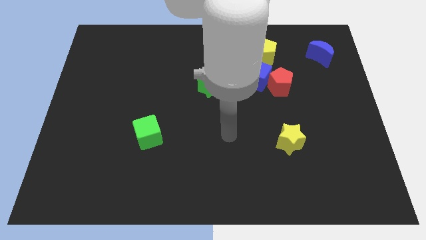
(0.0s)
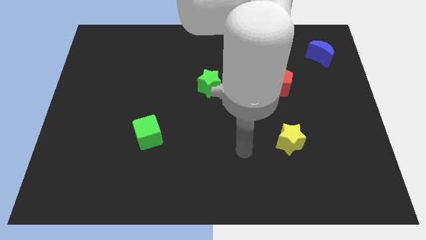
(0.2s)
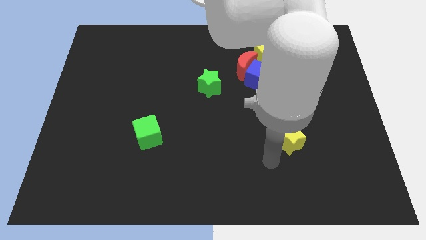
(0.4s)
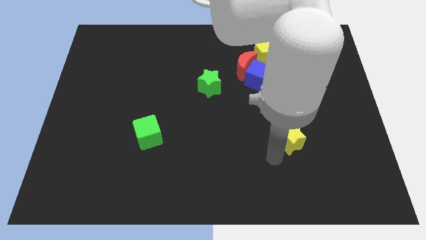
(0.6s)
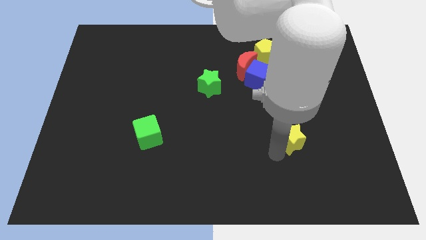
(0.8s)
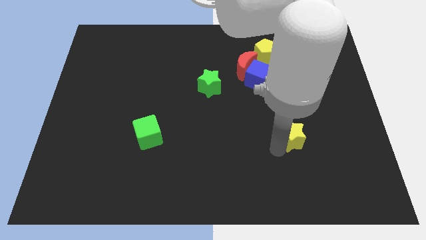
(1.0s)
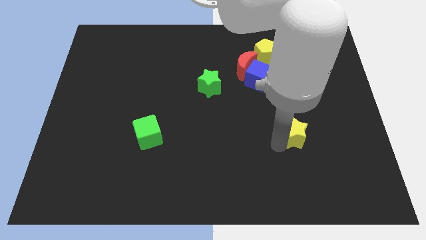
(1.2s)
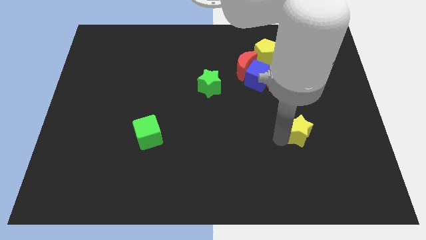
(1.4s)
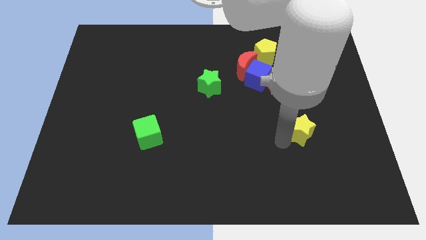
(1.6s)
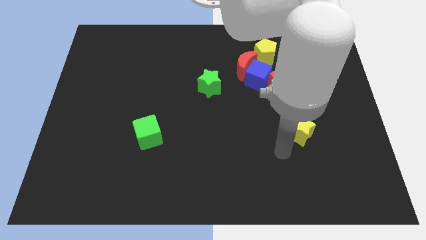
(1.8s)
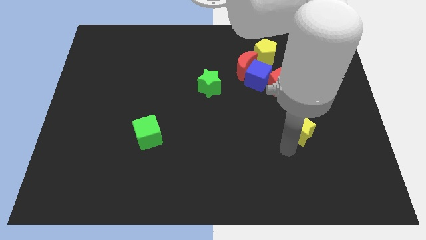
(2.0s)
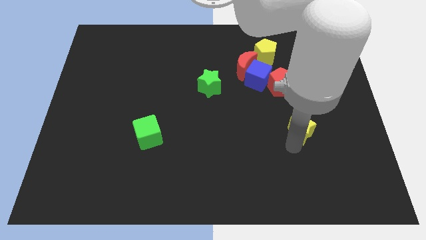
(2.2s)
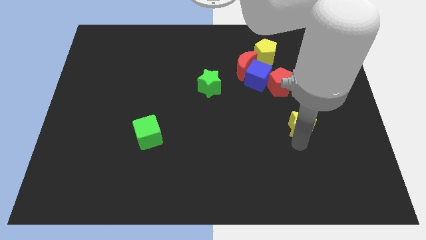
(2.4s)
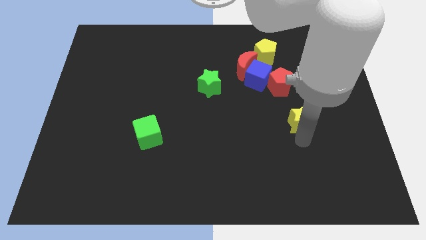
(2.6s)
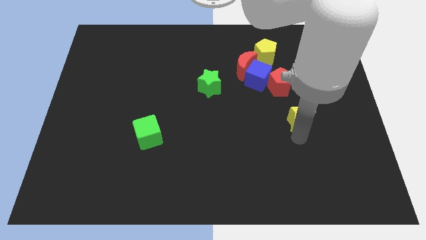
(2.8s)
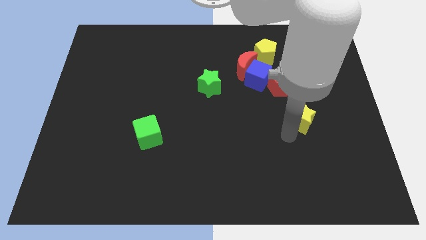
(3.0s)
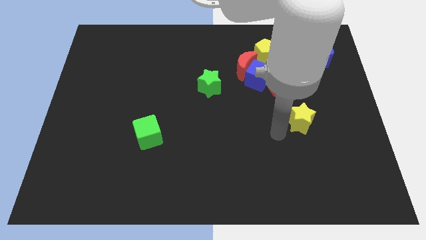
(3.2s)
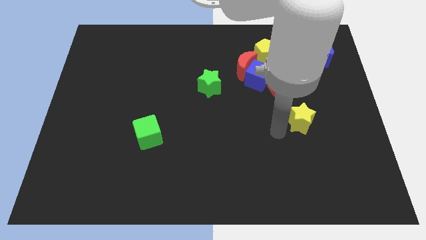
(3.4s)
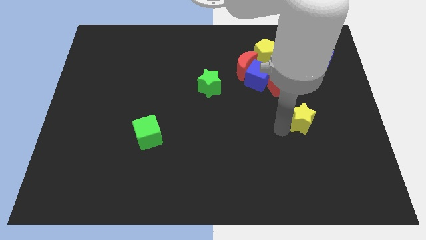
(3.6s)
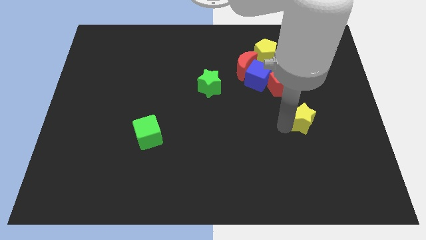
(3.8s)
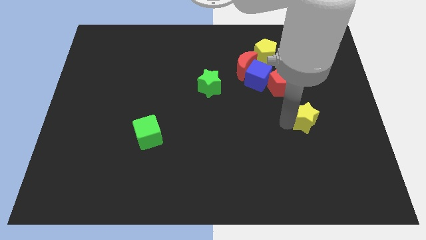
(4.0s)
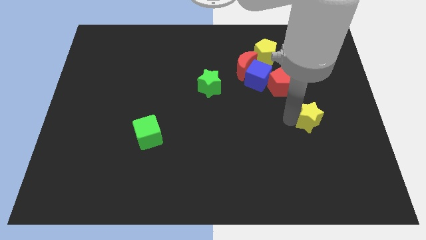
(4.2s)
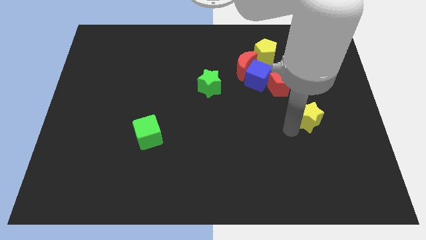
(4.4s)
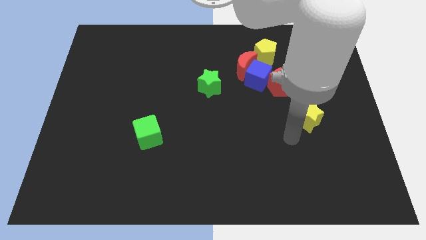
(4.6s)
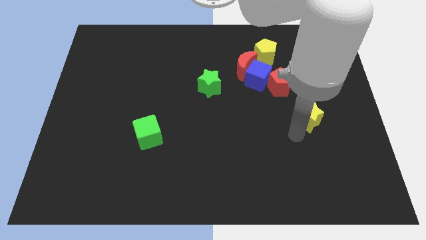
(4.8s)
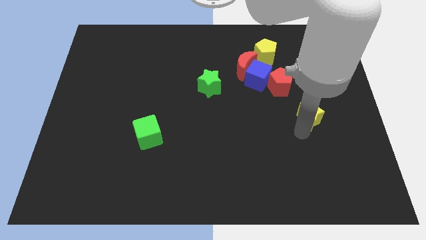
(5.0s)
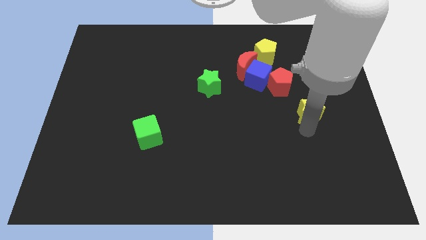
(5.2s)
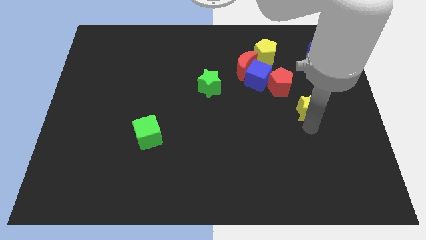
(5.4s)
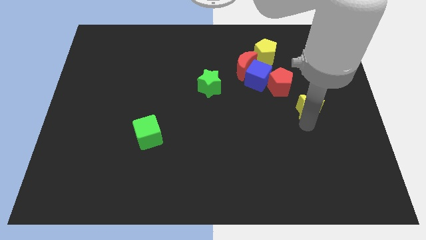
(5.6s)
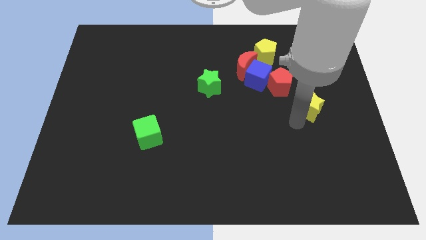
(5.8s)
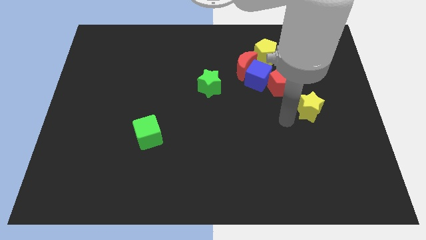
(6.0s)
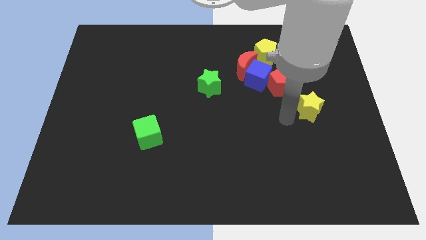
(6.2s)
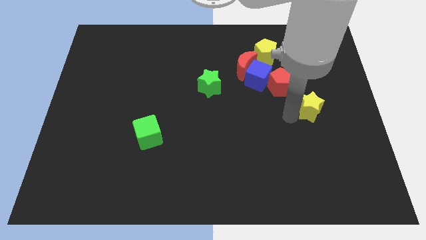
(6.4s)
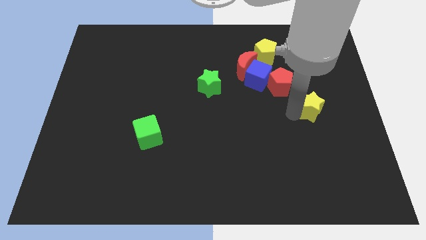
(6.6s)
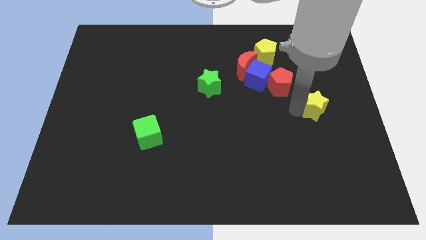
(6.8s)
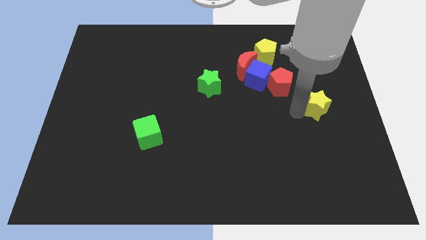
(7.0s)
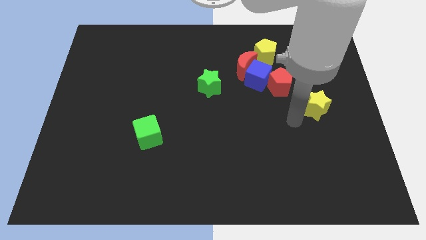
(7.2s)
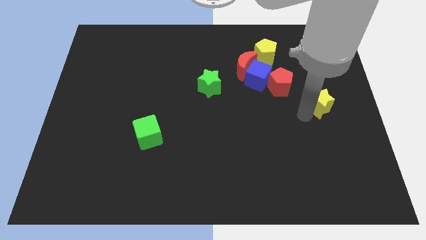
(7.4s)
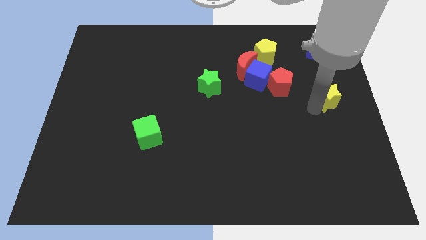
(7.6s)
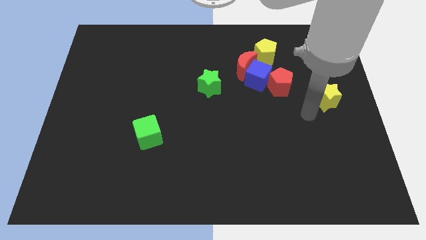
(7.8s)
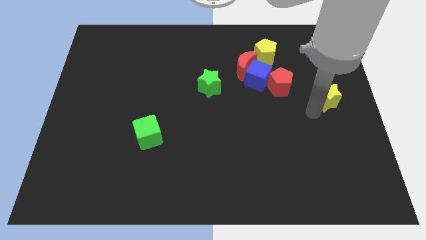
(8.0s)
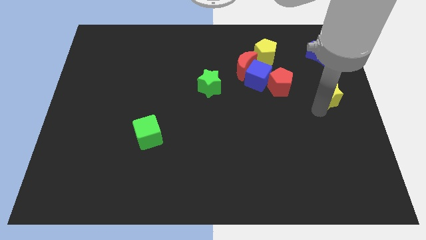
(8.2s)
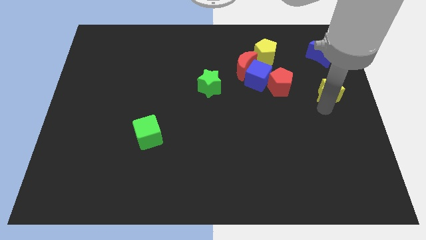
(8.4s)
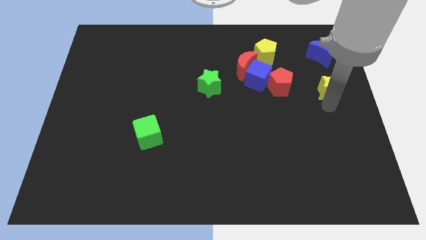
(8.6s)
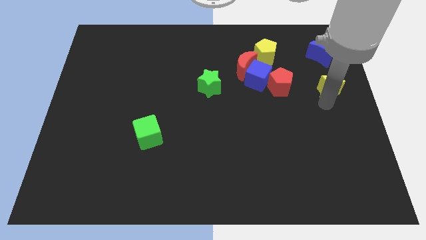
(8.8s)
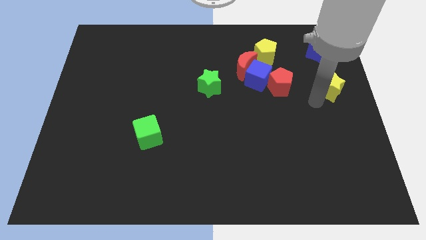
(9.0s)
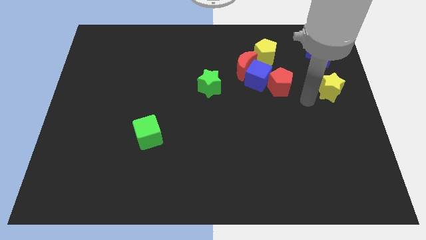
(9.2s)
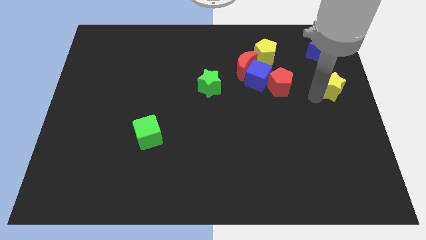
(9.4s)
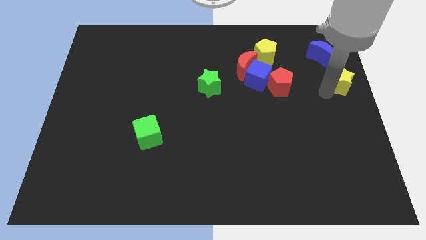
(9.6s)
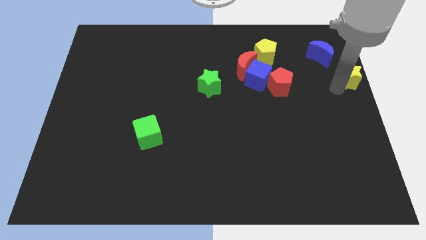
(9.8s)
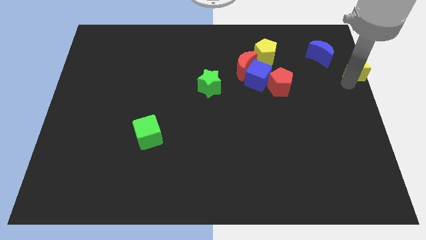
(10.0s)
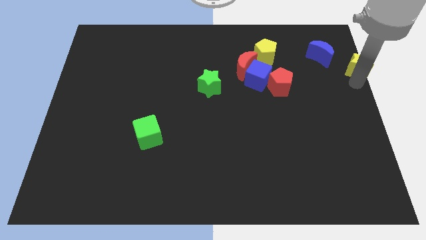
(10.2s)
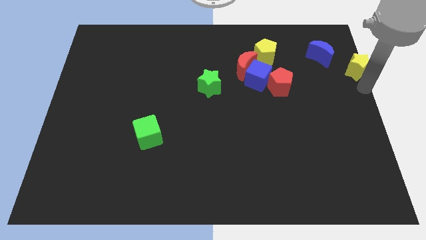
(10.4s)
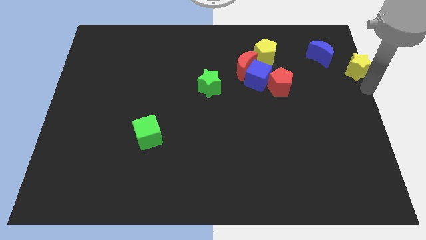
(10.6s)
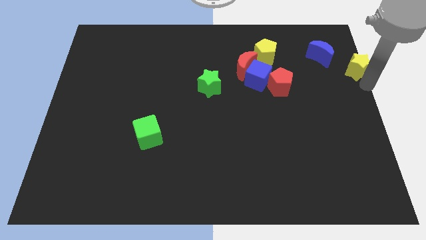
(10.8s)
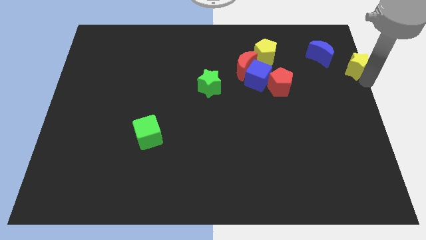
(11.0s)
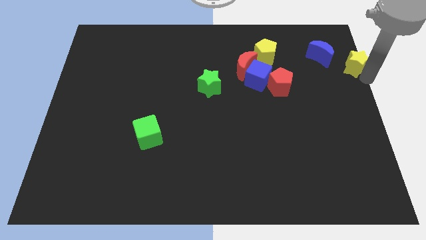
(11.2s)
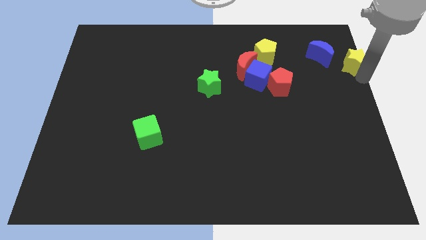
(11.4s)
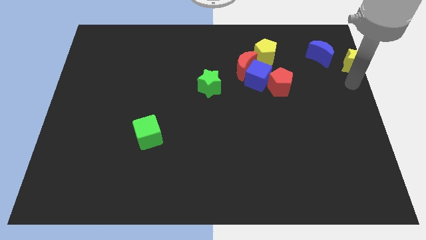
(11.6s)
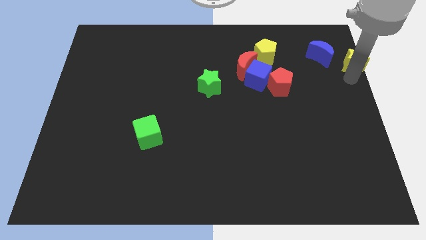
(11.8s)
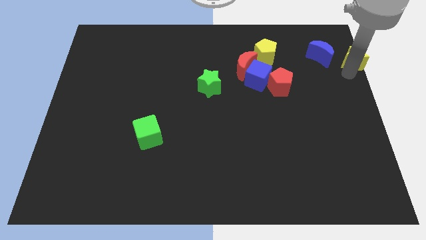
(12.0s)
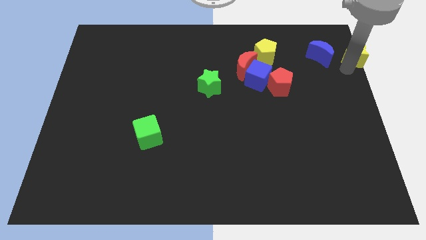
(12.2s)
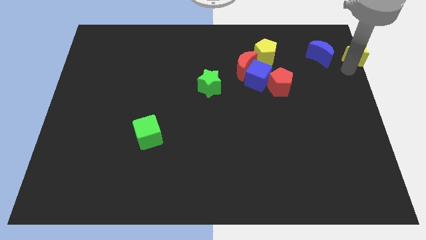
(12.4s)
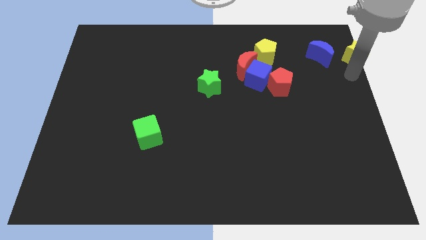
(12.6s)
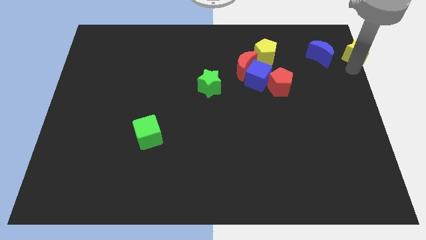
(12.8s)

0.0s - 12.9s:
put the yellow star to the top right

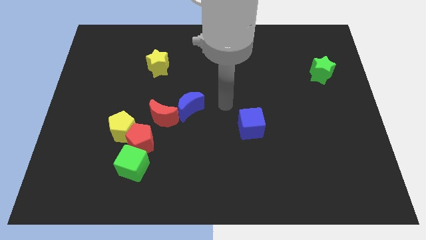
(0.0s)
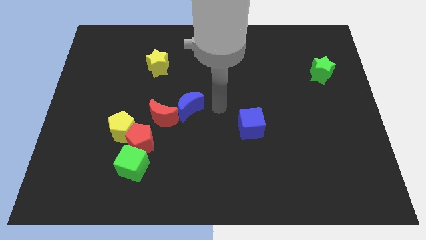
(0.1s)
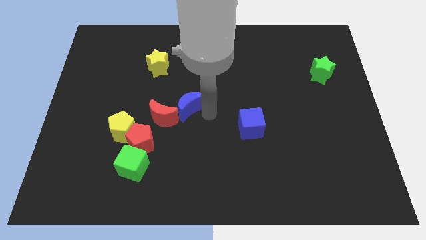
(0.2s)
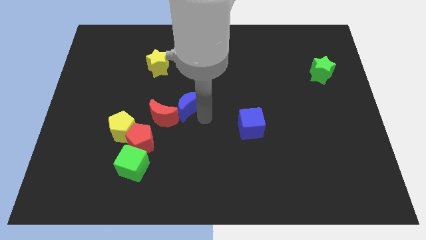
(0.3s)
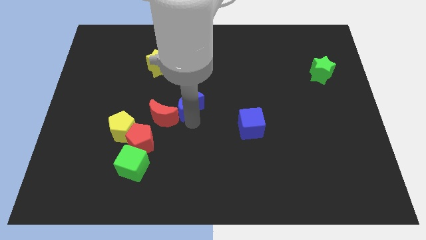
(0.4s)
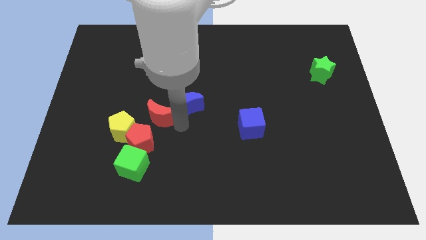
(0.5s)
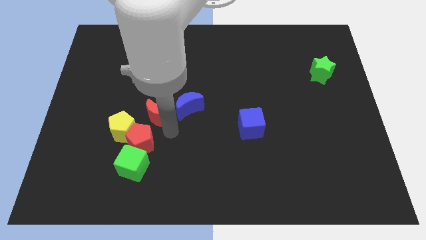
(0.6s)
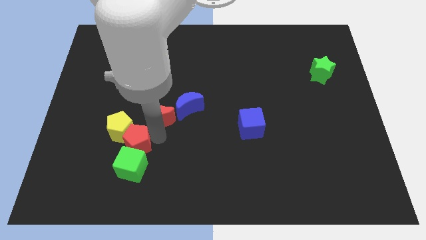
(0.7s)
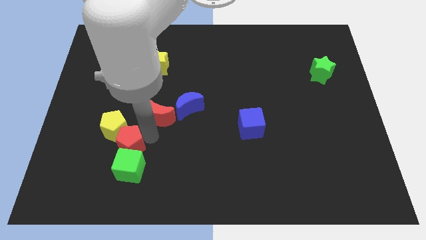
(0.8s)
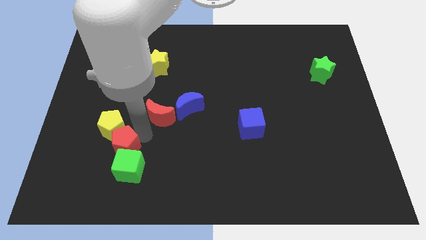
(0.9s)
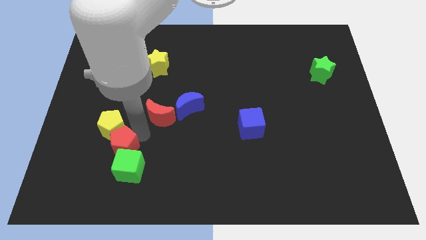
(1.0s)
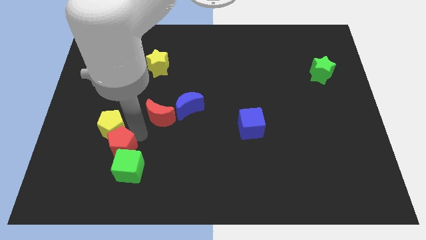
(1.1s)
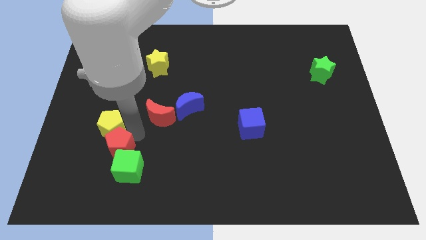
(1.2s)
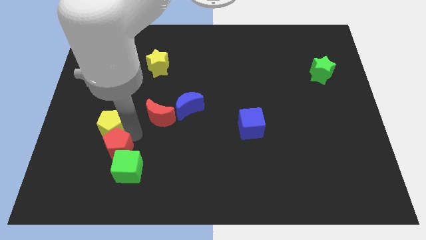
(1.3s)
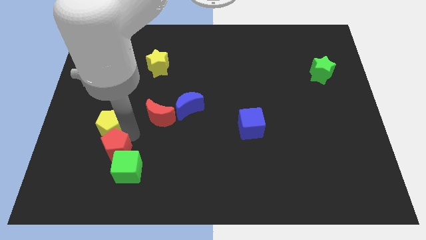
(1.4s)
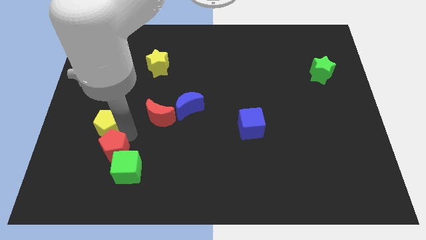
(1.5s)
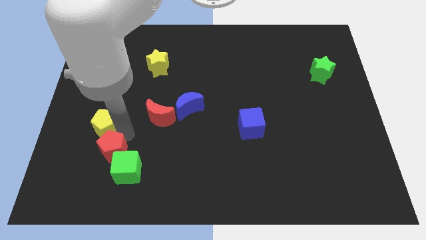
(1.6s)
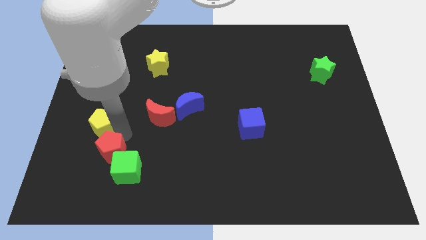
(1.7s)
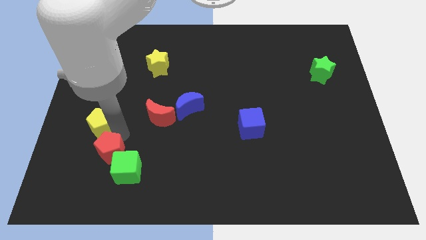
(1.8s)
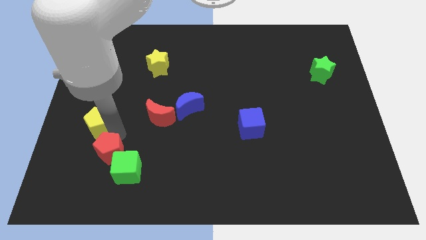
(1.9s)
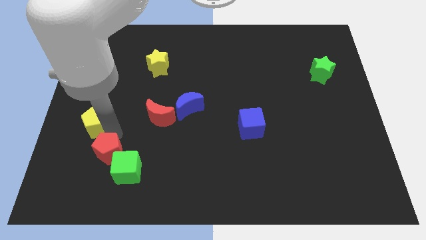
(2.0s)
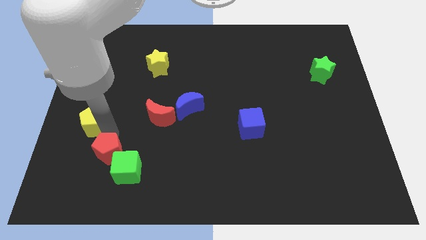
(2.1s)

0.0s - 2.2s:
move the yellow pentagon to the left side
